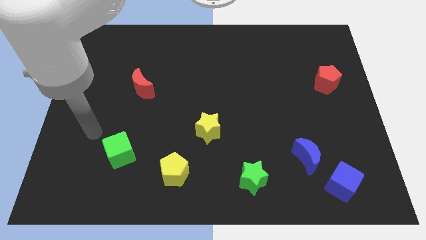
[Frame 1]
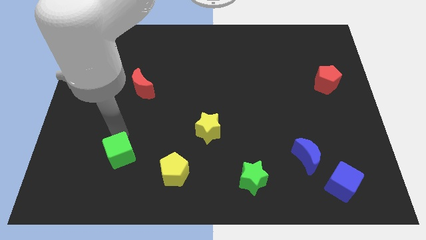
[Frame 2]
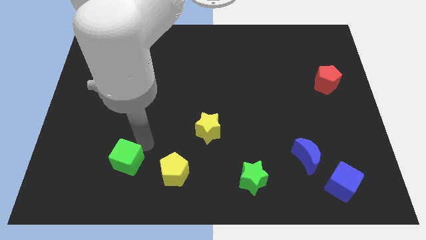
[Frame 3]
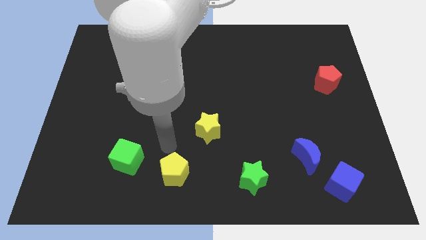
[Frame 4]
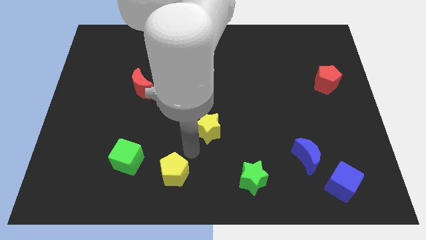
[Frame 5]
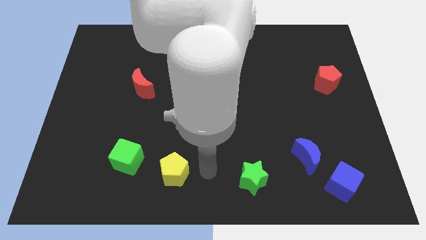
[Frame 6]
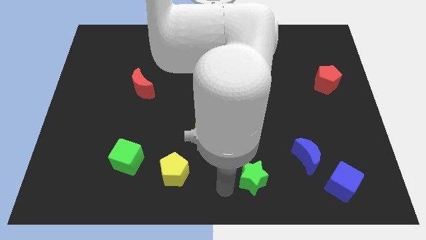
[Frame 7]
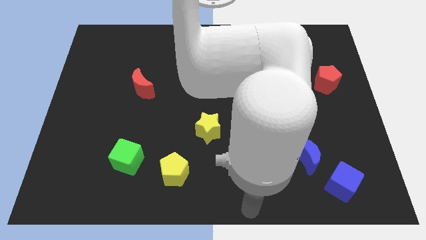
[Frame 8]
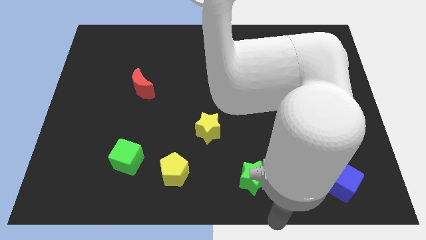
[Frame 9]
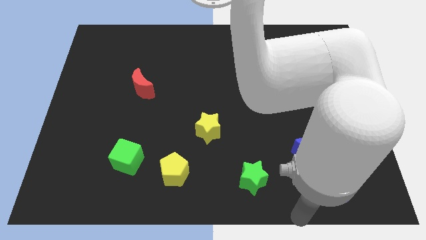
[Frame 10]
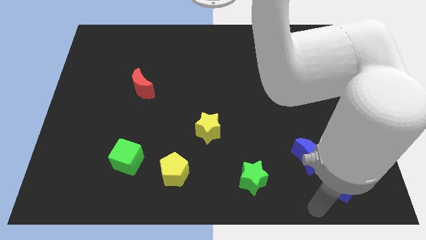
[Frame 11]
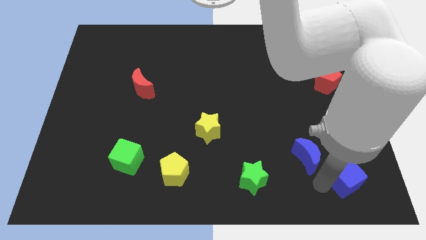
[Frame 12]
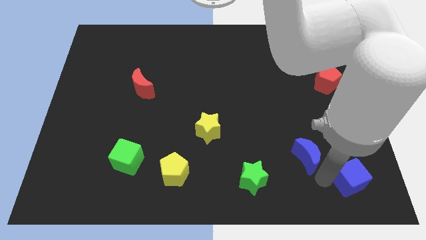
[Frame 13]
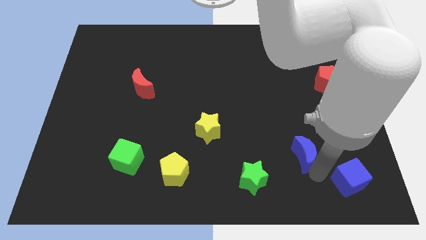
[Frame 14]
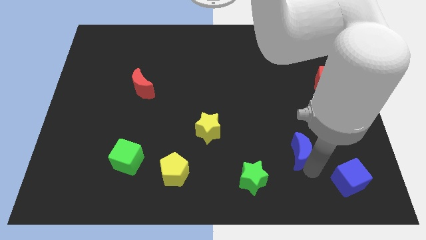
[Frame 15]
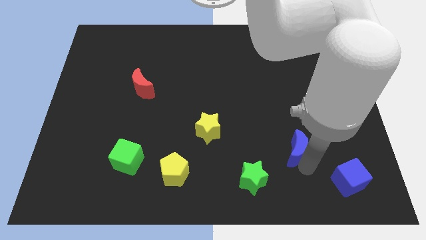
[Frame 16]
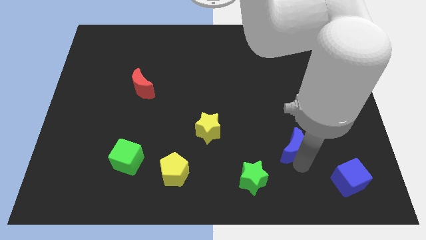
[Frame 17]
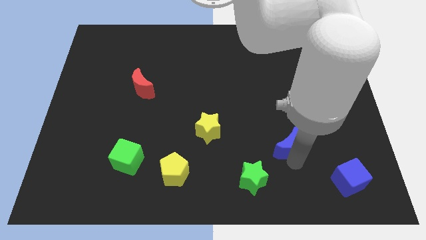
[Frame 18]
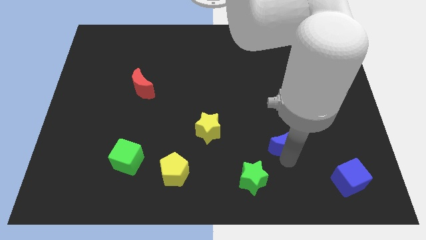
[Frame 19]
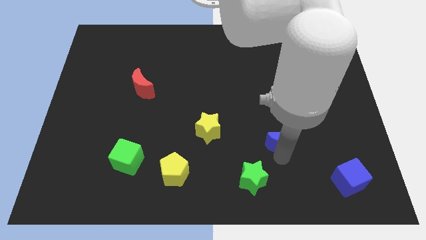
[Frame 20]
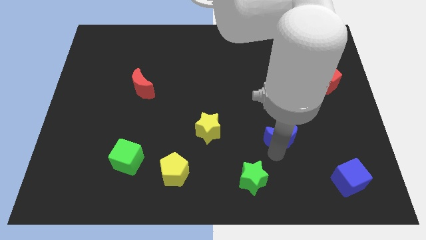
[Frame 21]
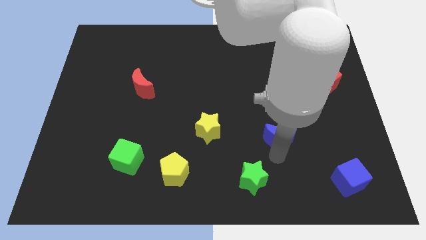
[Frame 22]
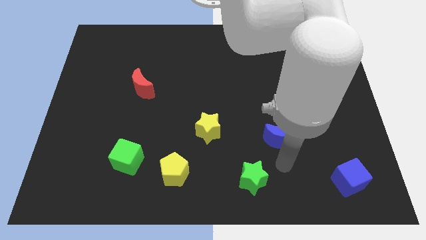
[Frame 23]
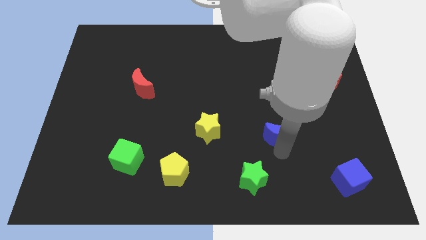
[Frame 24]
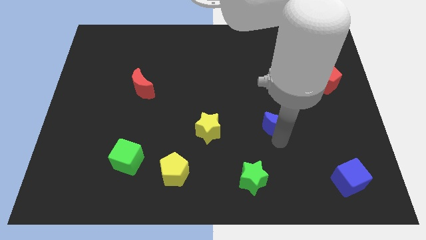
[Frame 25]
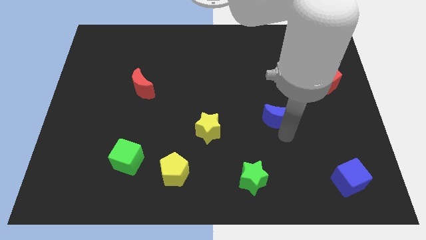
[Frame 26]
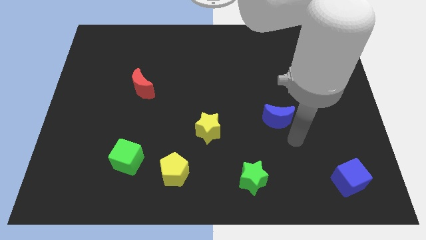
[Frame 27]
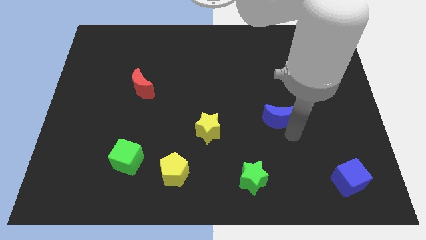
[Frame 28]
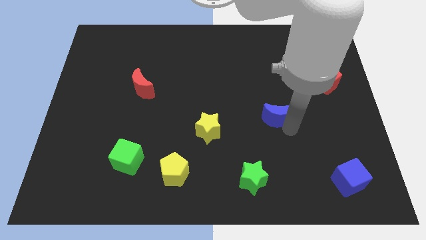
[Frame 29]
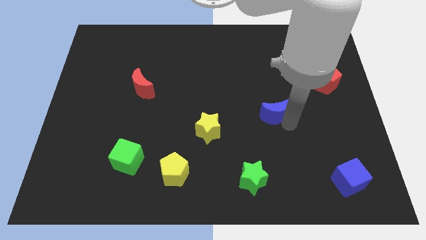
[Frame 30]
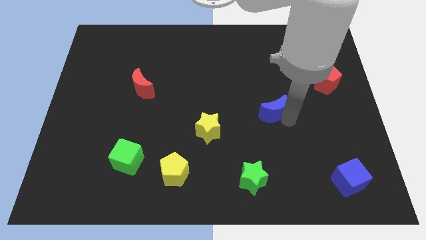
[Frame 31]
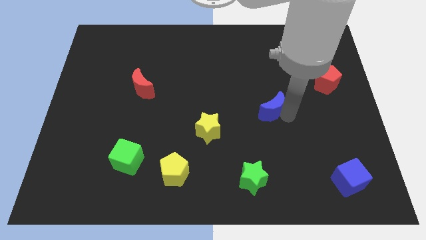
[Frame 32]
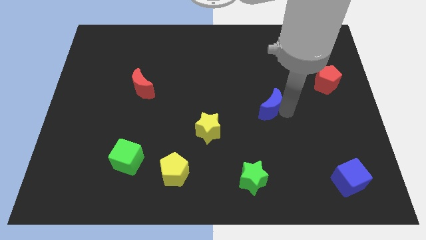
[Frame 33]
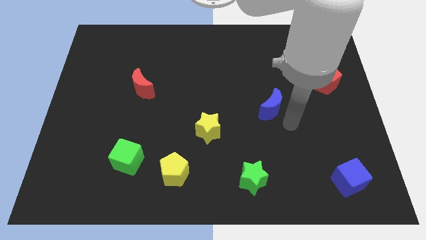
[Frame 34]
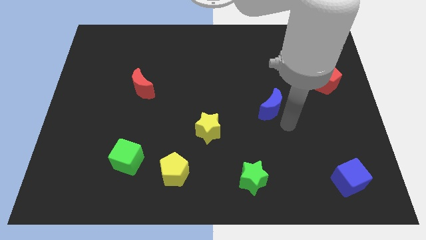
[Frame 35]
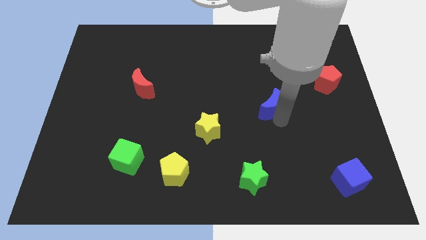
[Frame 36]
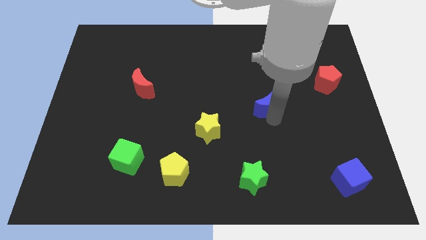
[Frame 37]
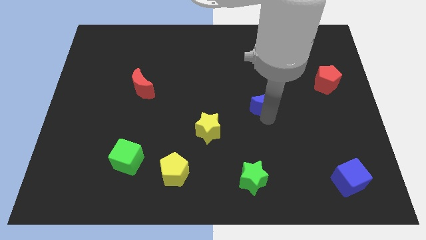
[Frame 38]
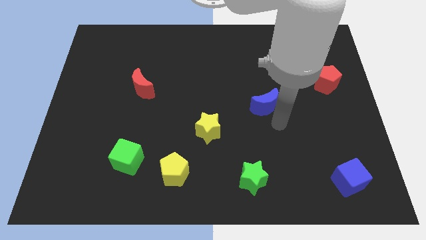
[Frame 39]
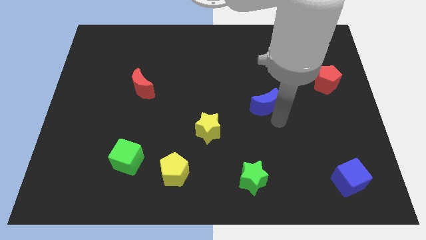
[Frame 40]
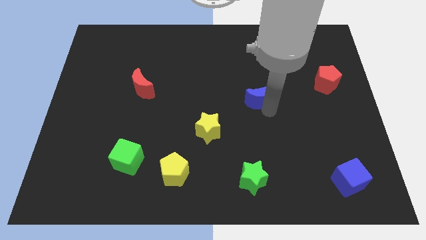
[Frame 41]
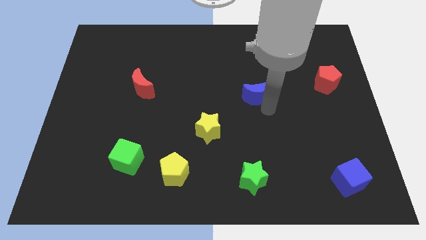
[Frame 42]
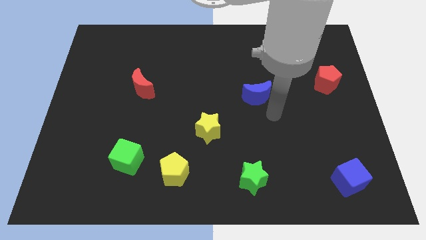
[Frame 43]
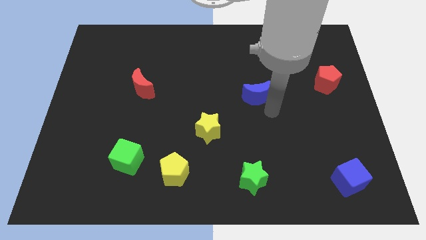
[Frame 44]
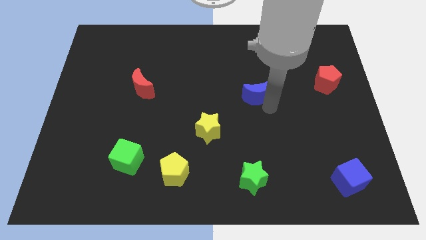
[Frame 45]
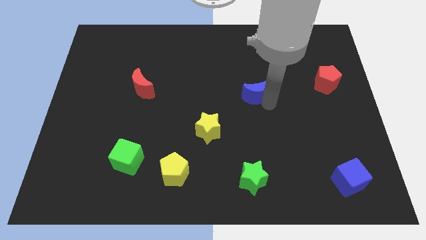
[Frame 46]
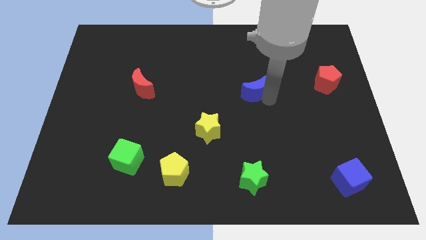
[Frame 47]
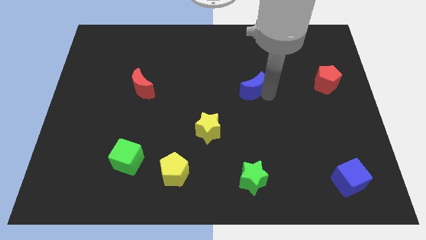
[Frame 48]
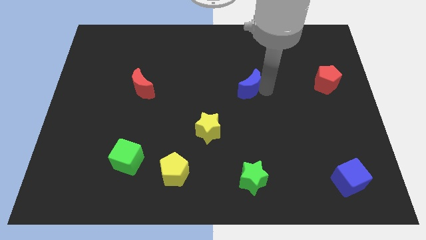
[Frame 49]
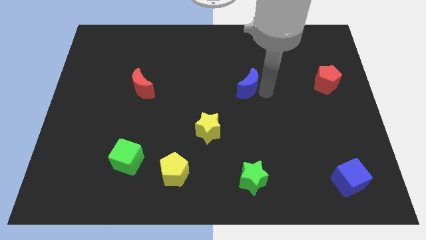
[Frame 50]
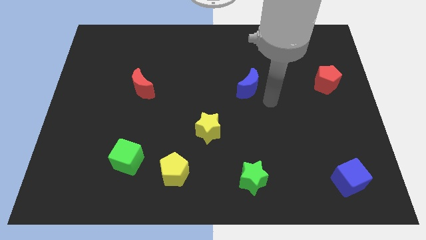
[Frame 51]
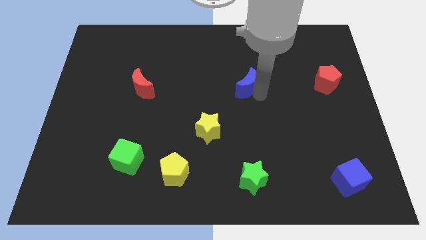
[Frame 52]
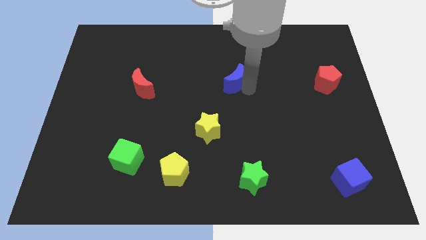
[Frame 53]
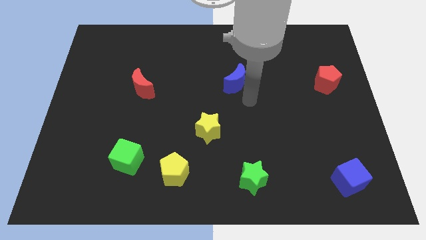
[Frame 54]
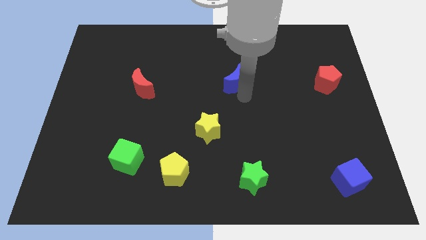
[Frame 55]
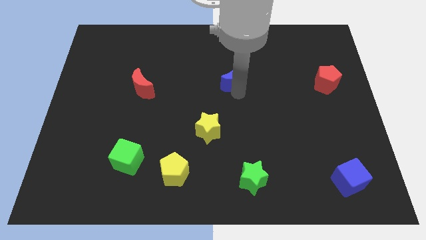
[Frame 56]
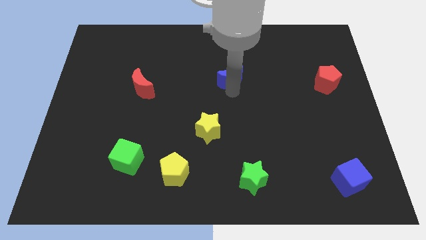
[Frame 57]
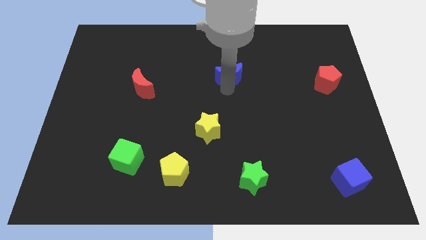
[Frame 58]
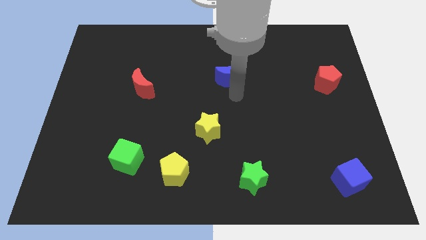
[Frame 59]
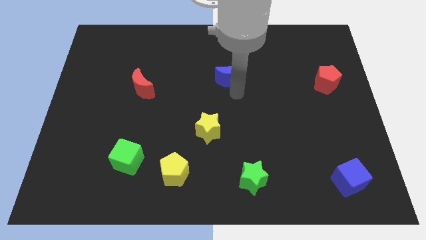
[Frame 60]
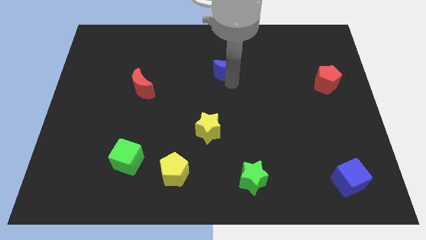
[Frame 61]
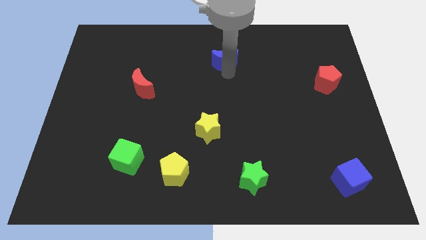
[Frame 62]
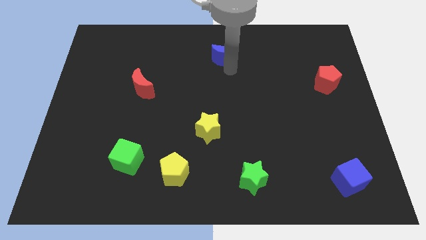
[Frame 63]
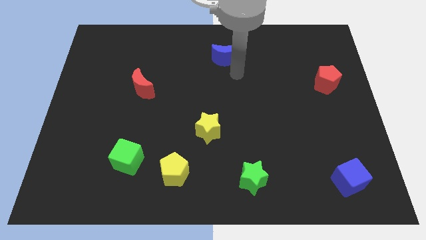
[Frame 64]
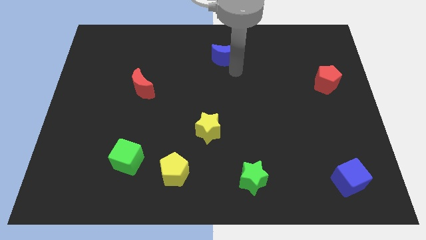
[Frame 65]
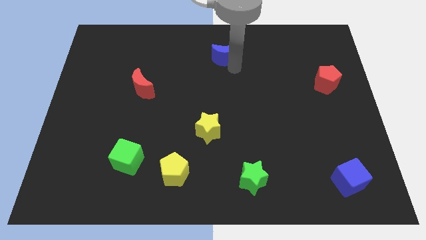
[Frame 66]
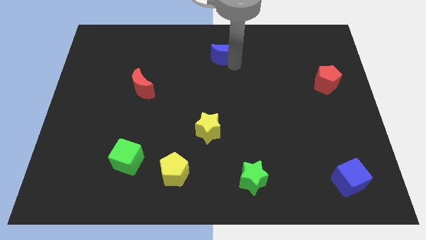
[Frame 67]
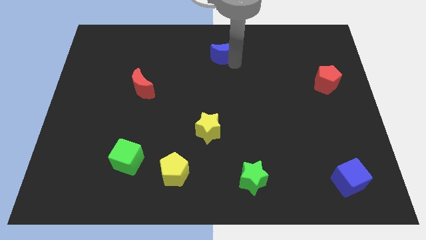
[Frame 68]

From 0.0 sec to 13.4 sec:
put the blue moon to the towards your base
